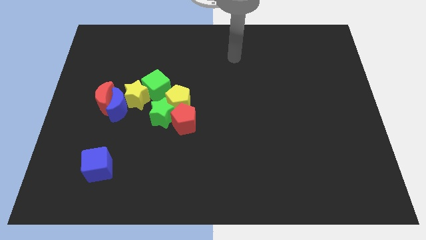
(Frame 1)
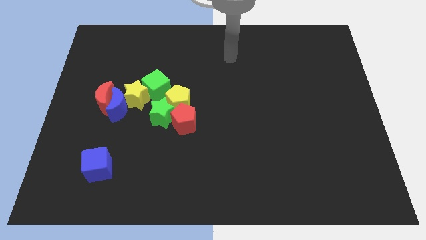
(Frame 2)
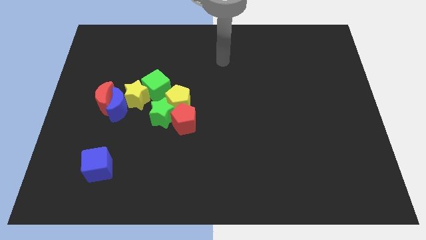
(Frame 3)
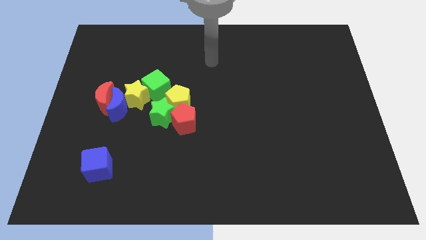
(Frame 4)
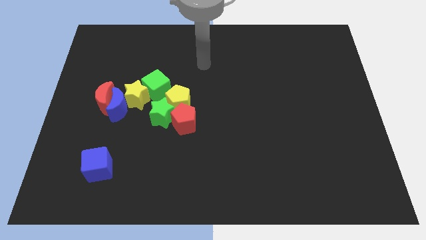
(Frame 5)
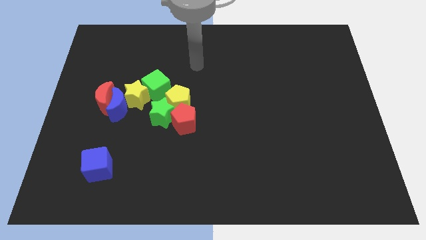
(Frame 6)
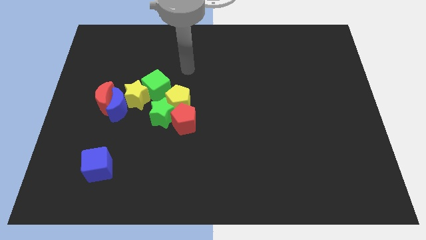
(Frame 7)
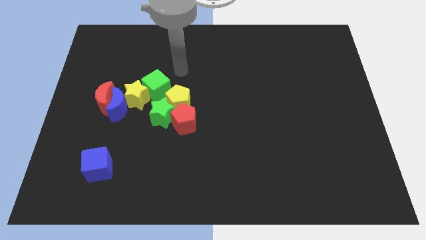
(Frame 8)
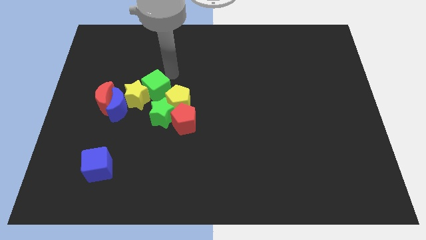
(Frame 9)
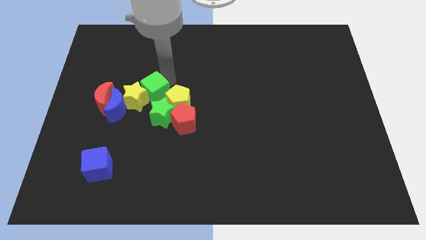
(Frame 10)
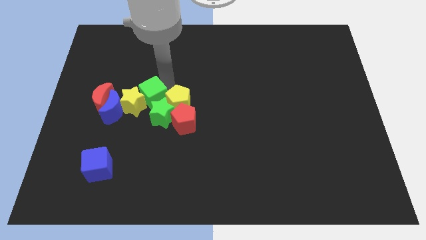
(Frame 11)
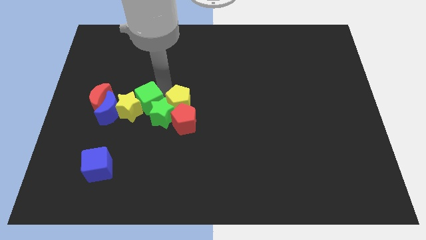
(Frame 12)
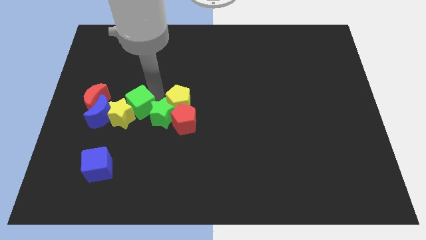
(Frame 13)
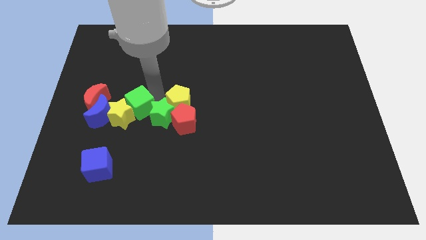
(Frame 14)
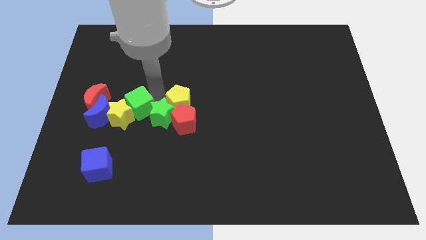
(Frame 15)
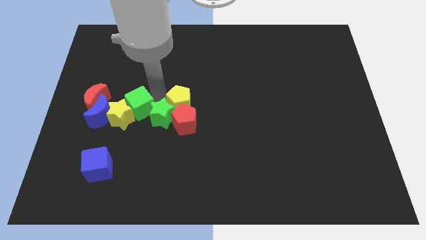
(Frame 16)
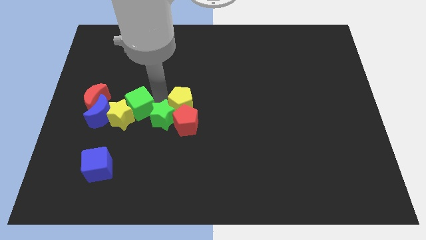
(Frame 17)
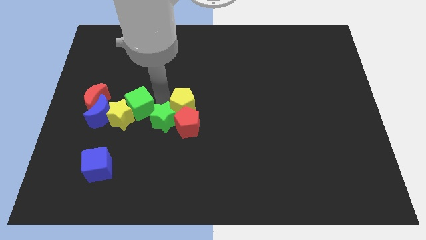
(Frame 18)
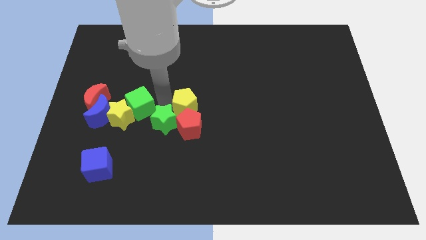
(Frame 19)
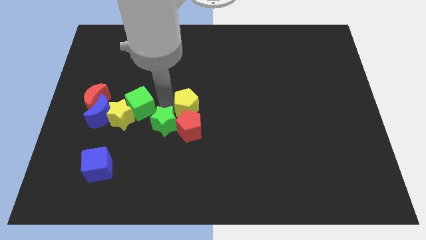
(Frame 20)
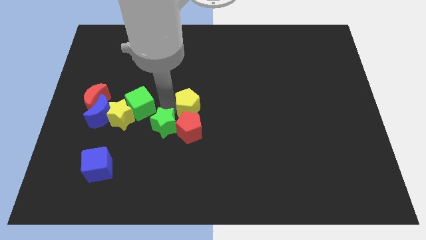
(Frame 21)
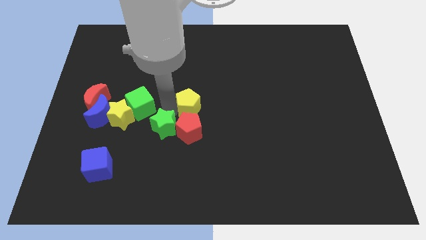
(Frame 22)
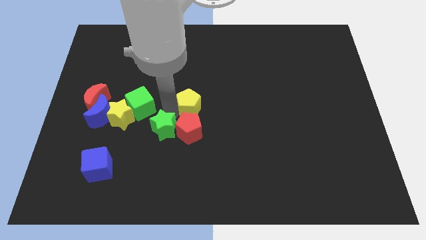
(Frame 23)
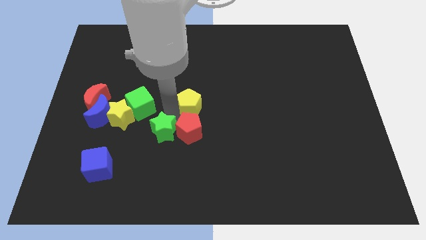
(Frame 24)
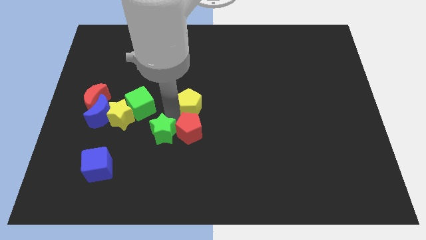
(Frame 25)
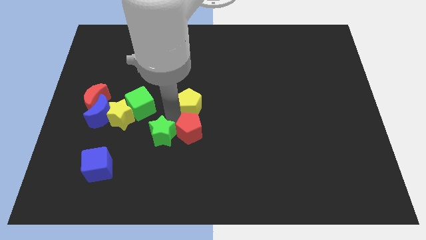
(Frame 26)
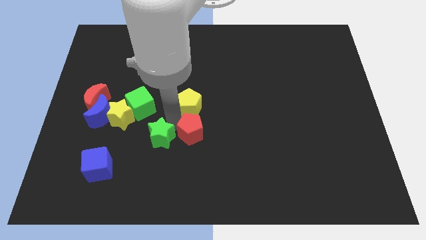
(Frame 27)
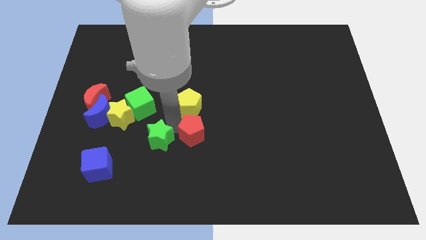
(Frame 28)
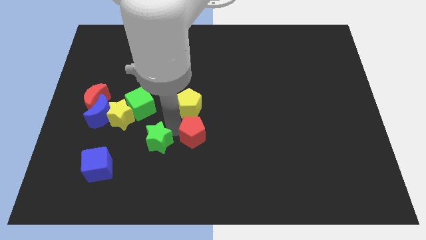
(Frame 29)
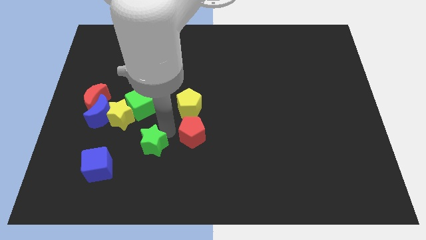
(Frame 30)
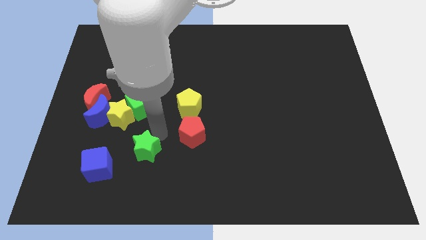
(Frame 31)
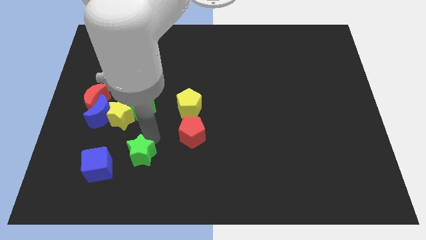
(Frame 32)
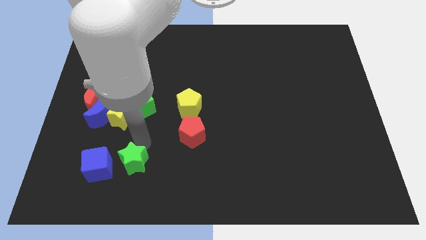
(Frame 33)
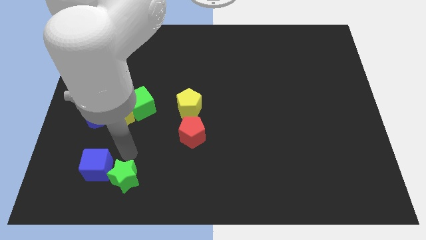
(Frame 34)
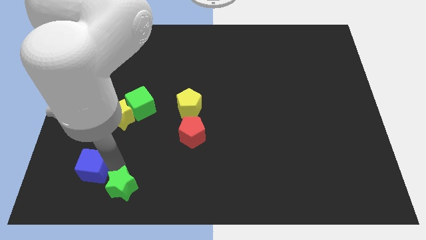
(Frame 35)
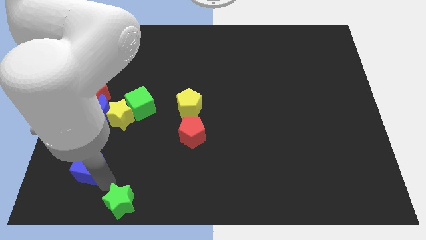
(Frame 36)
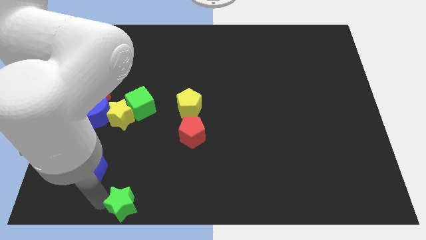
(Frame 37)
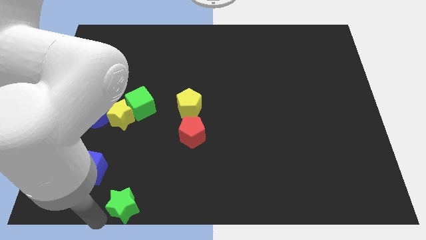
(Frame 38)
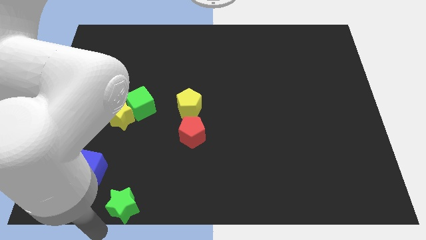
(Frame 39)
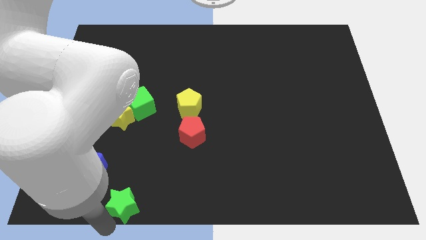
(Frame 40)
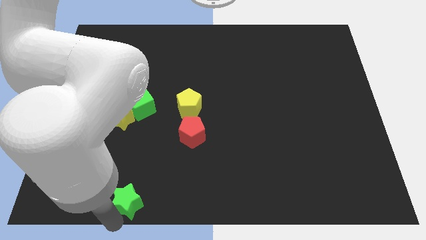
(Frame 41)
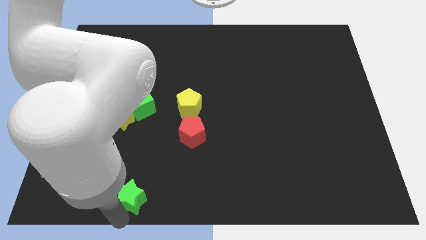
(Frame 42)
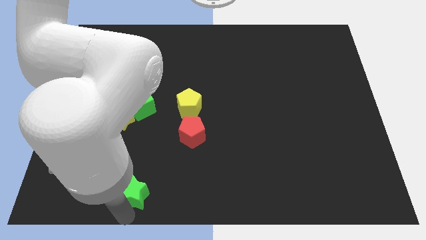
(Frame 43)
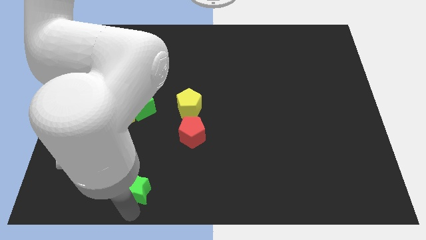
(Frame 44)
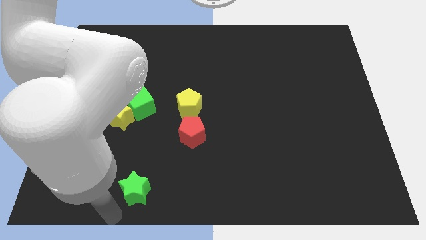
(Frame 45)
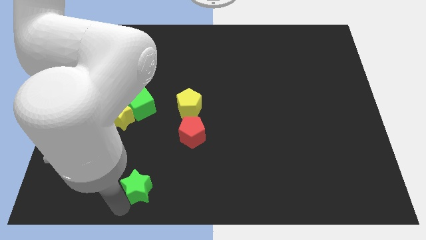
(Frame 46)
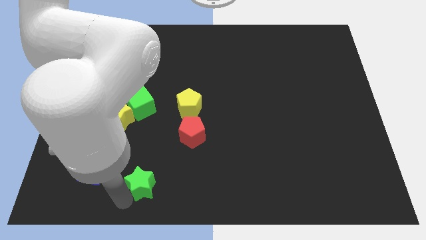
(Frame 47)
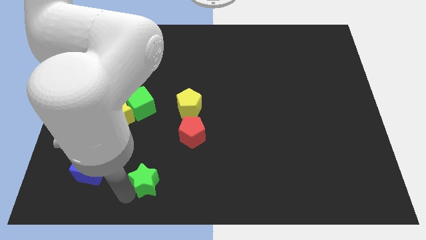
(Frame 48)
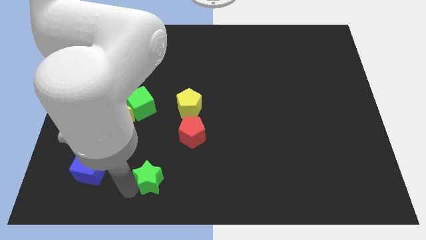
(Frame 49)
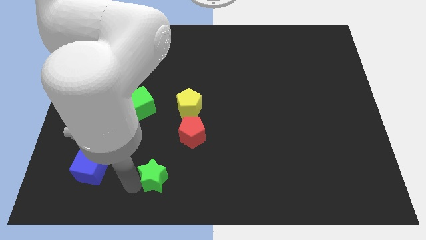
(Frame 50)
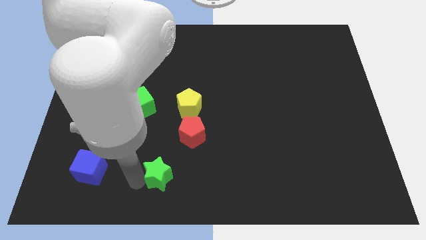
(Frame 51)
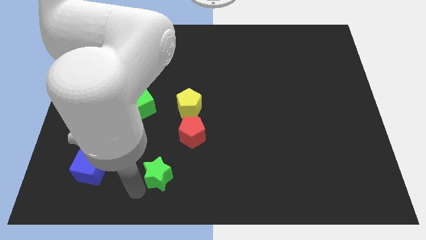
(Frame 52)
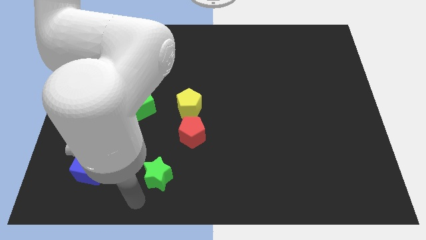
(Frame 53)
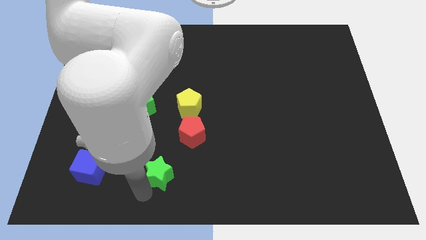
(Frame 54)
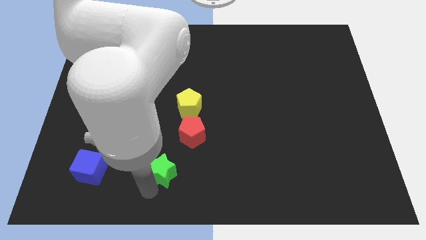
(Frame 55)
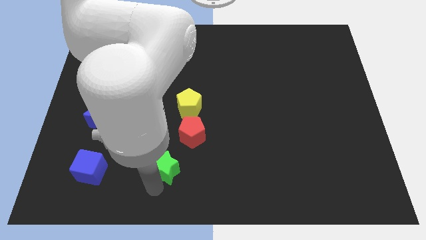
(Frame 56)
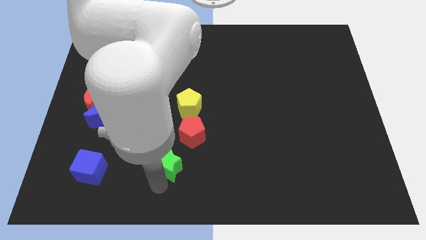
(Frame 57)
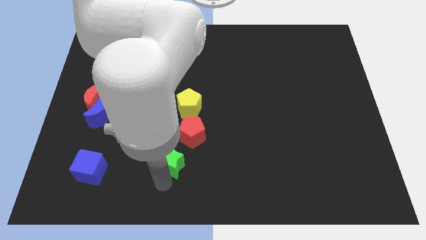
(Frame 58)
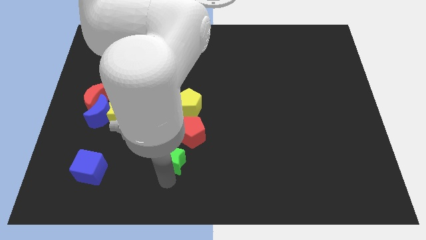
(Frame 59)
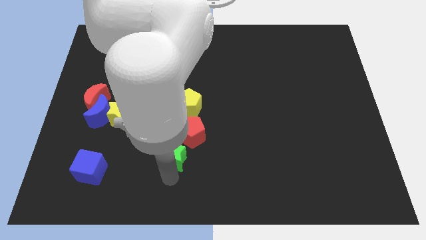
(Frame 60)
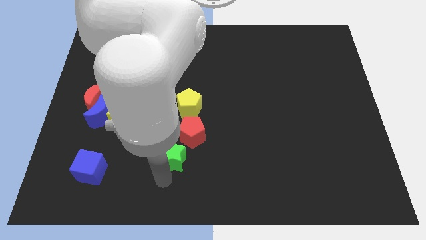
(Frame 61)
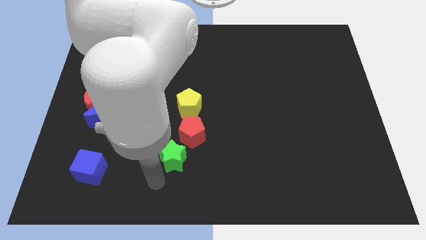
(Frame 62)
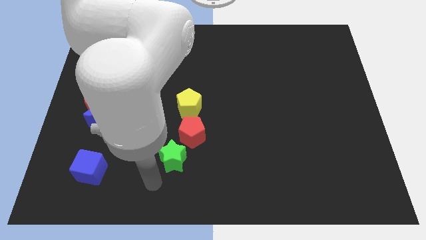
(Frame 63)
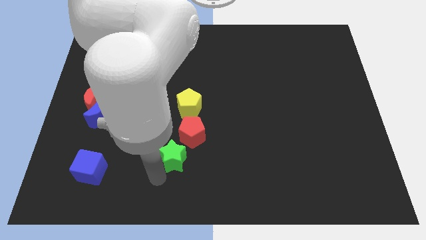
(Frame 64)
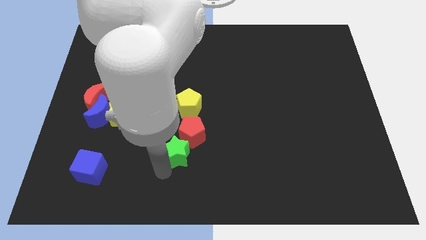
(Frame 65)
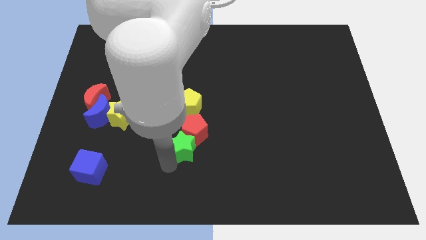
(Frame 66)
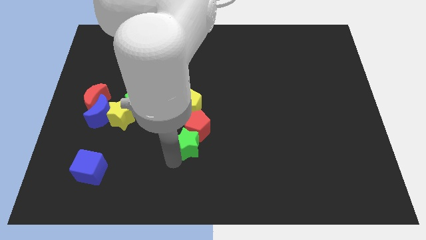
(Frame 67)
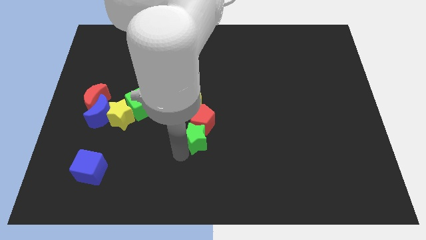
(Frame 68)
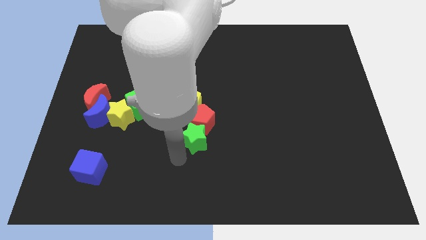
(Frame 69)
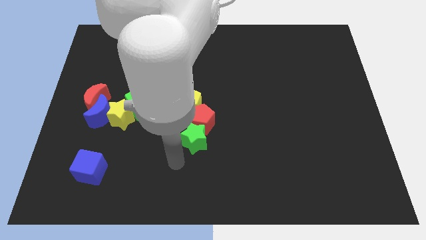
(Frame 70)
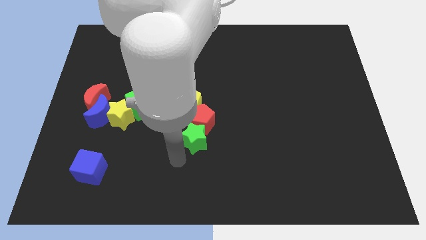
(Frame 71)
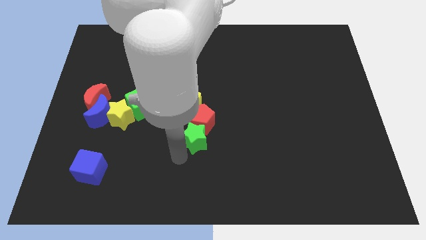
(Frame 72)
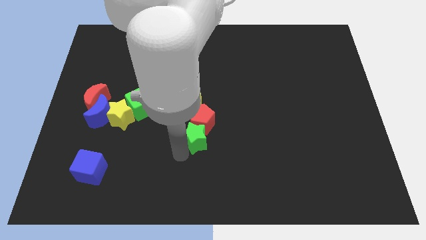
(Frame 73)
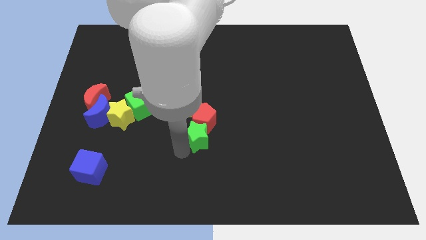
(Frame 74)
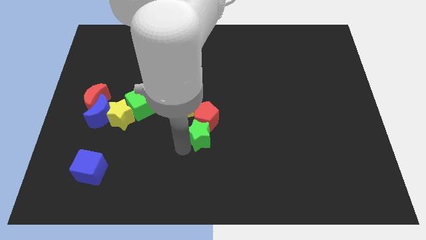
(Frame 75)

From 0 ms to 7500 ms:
push the green star to the bottom right of the yellow pentagon
